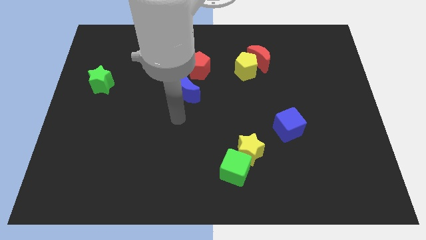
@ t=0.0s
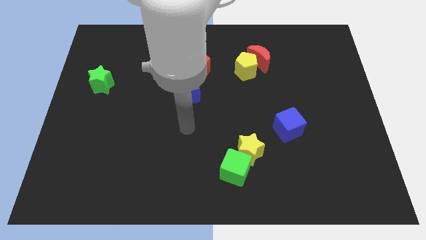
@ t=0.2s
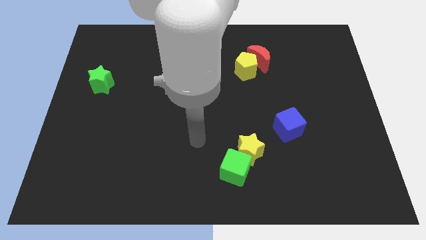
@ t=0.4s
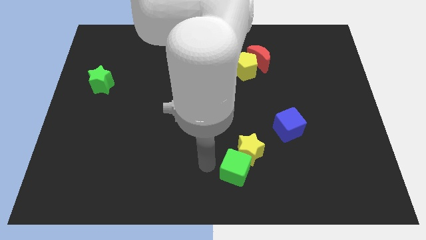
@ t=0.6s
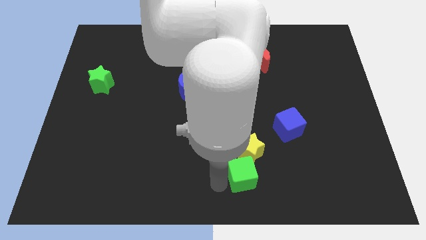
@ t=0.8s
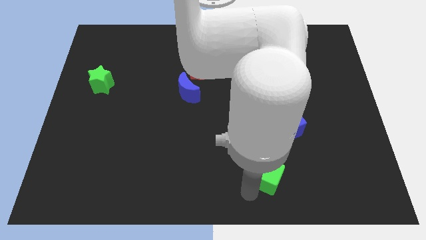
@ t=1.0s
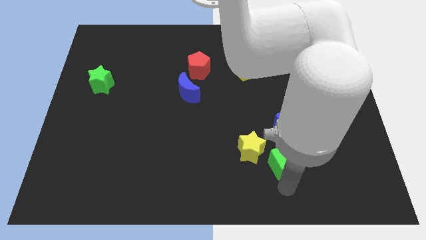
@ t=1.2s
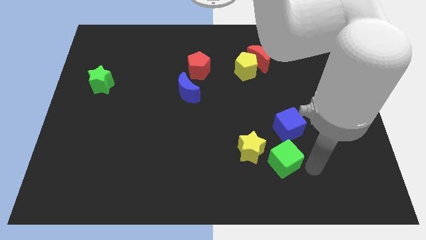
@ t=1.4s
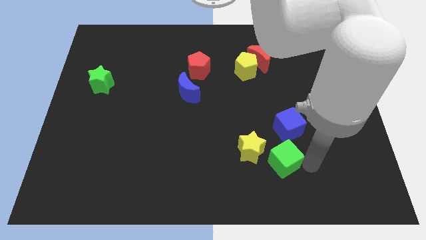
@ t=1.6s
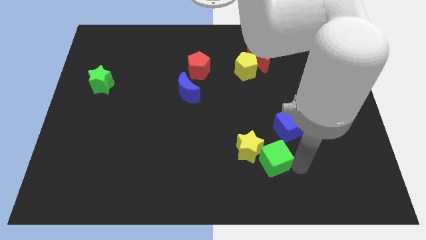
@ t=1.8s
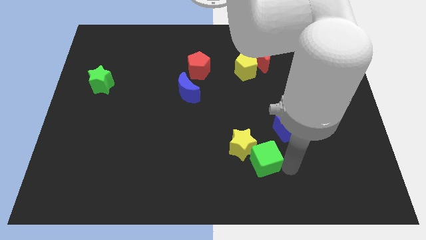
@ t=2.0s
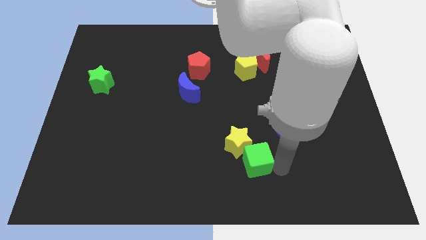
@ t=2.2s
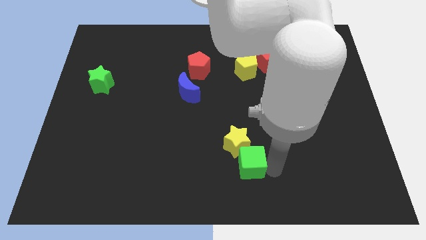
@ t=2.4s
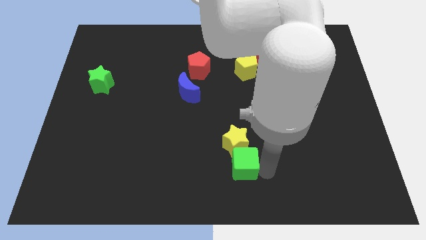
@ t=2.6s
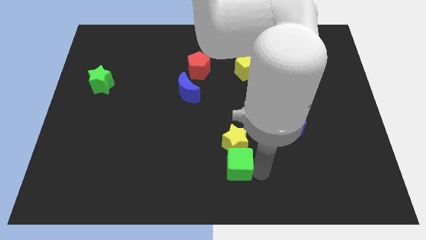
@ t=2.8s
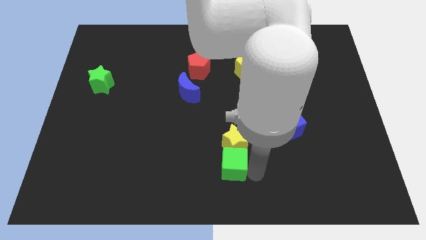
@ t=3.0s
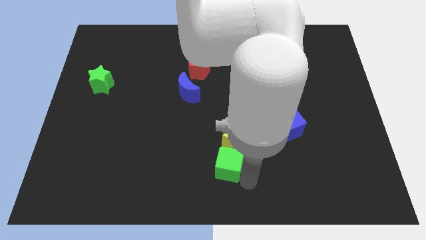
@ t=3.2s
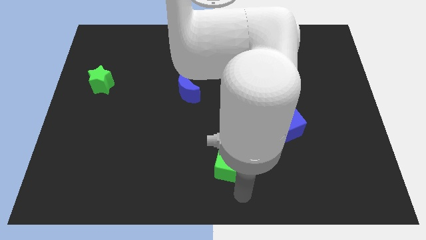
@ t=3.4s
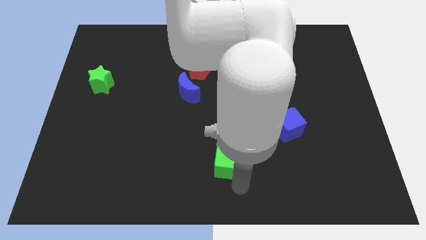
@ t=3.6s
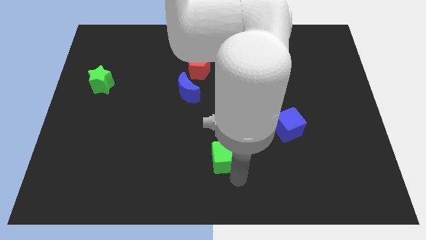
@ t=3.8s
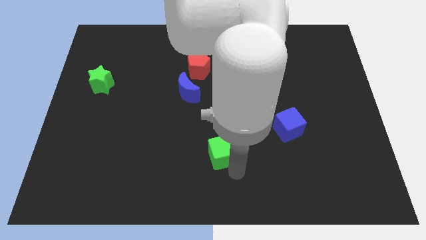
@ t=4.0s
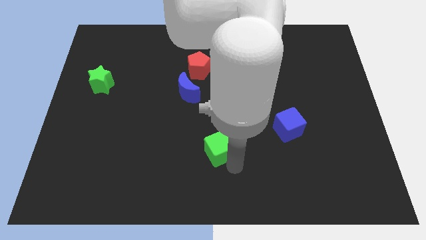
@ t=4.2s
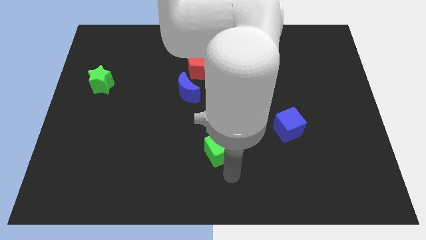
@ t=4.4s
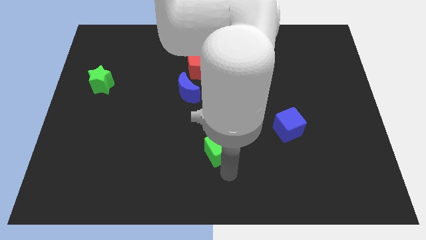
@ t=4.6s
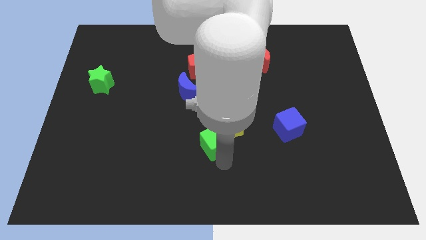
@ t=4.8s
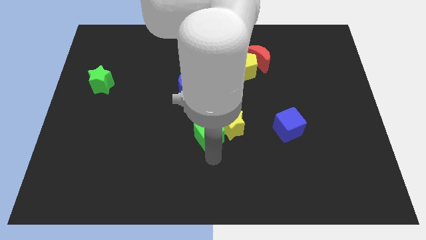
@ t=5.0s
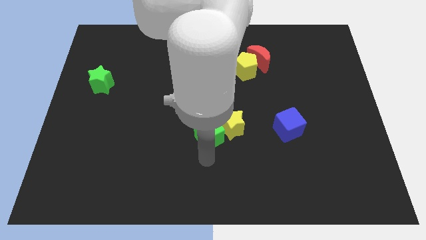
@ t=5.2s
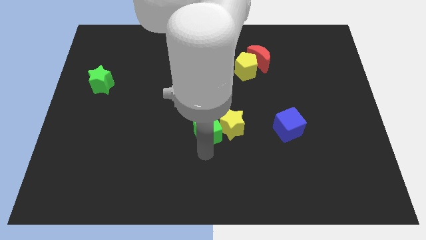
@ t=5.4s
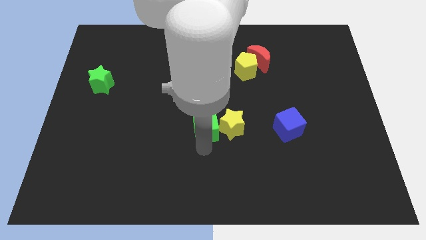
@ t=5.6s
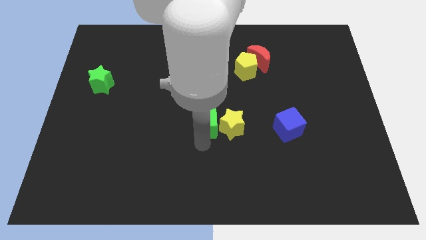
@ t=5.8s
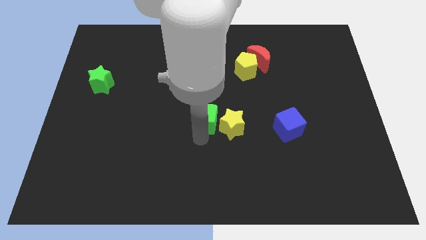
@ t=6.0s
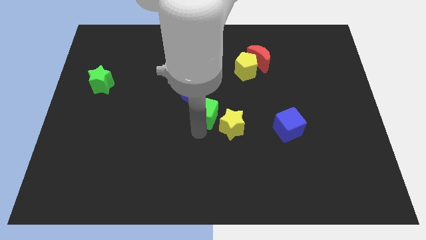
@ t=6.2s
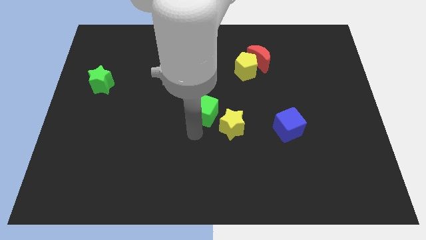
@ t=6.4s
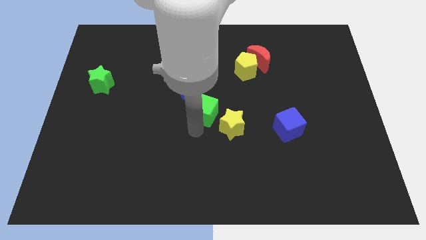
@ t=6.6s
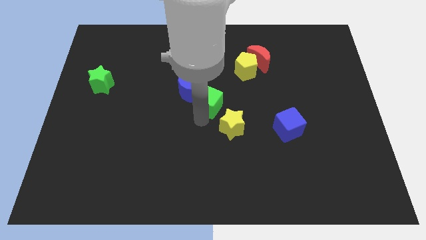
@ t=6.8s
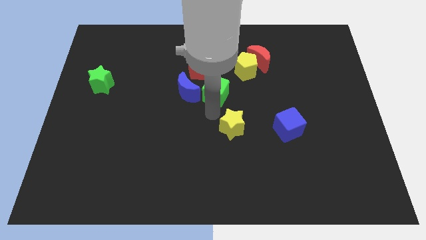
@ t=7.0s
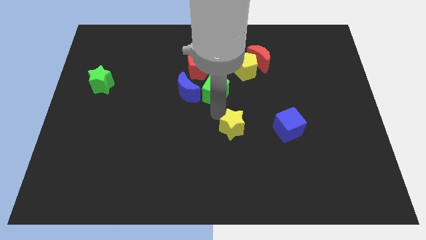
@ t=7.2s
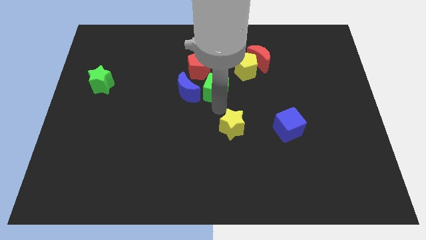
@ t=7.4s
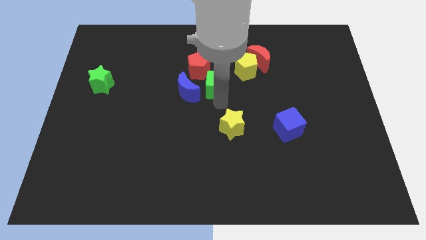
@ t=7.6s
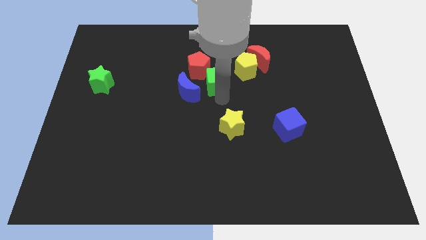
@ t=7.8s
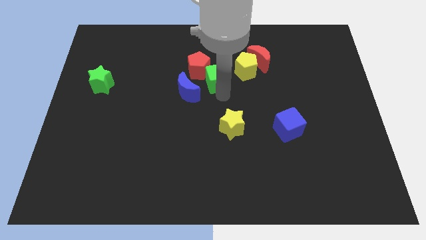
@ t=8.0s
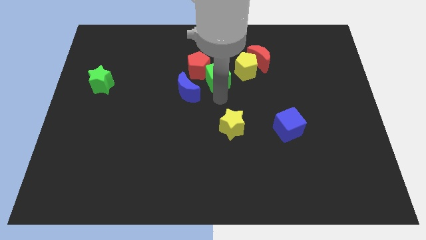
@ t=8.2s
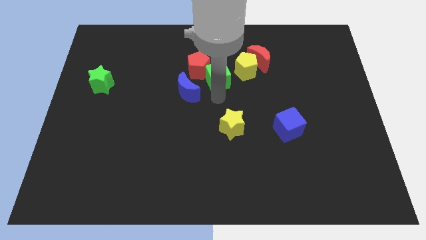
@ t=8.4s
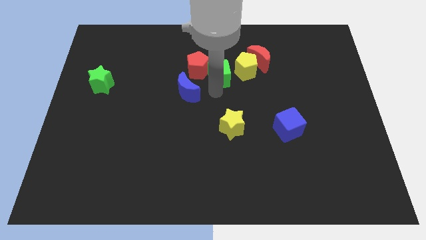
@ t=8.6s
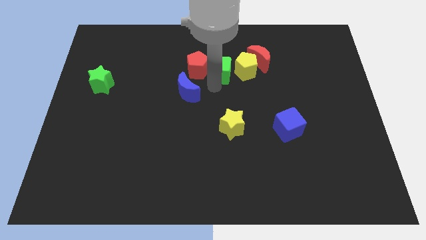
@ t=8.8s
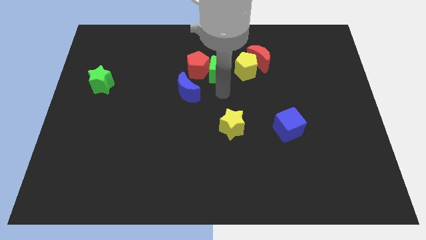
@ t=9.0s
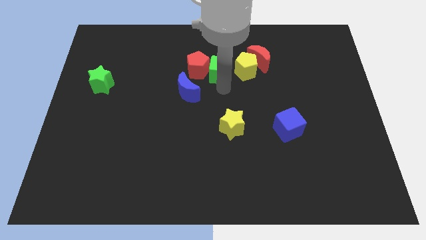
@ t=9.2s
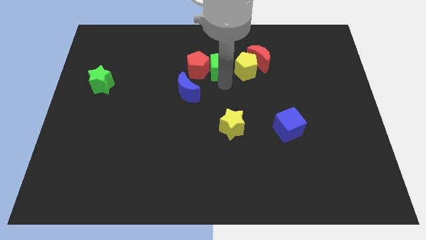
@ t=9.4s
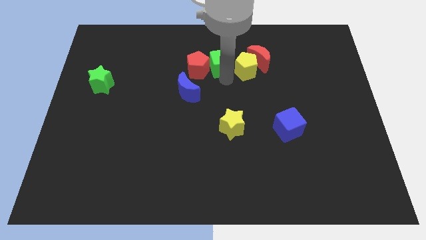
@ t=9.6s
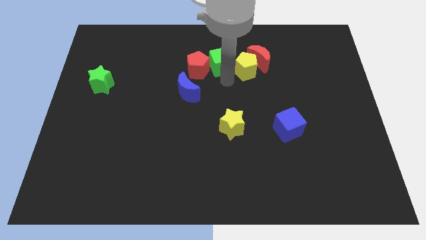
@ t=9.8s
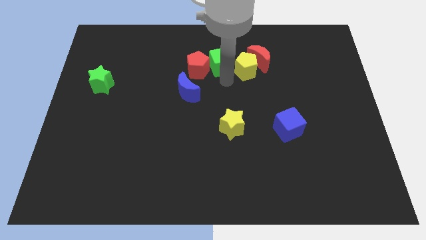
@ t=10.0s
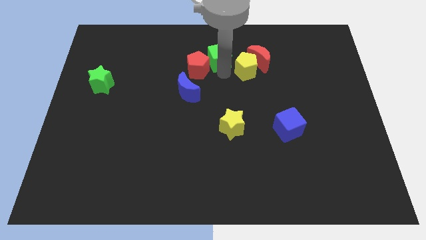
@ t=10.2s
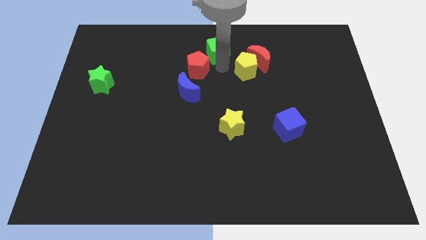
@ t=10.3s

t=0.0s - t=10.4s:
move the green cube to the towards your base

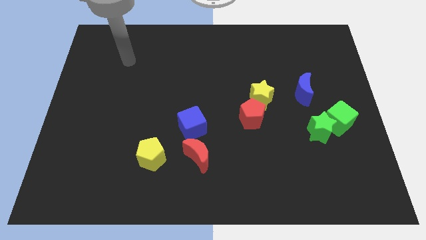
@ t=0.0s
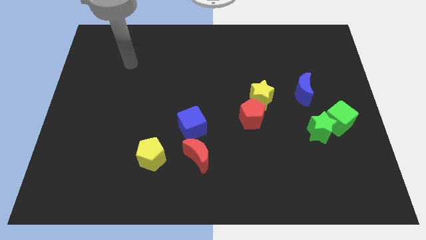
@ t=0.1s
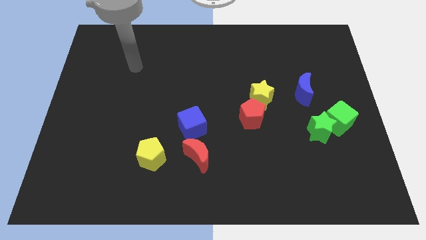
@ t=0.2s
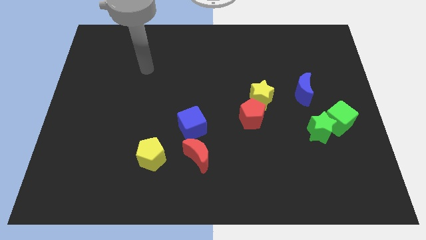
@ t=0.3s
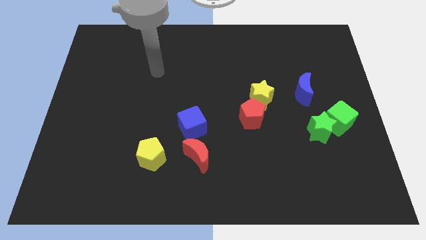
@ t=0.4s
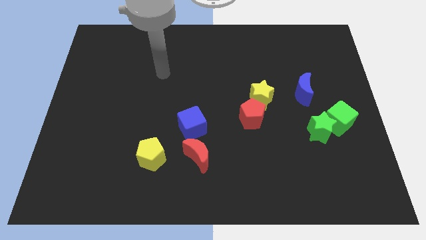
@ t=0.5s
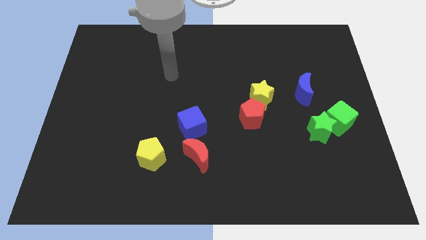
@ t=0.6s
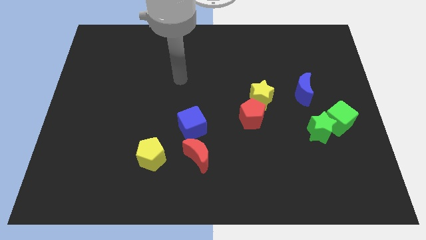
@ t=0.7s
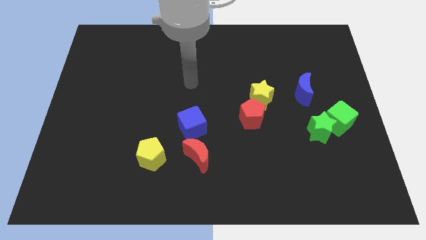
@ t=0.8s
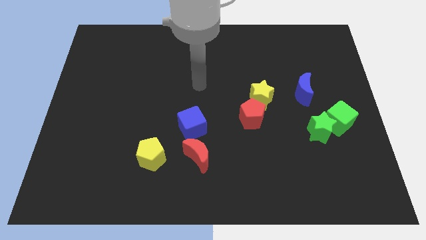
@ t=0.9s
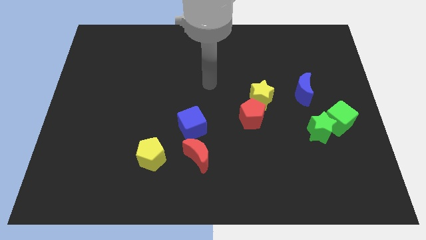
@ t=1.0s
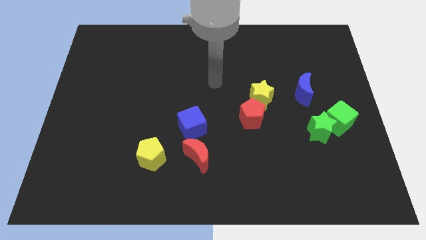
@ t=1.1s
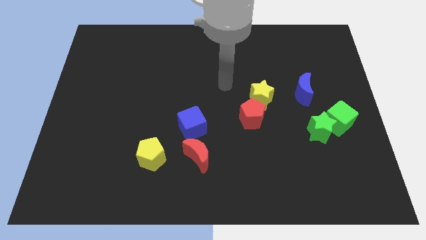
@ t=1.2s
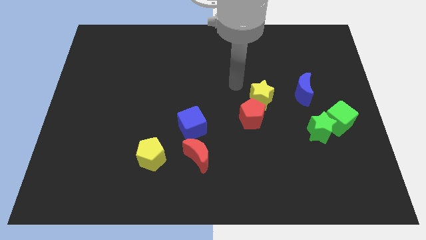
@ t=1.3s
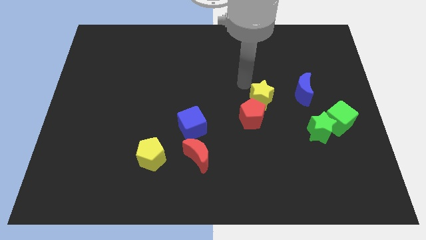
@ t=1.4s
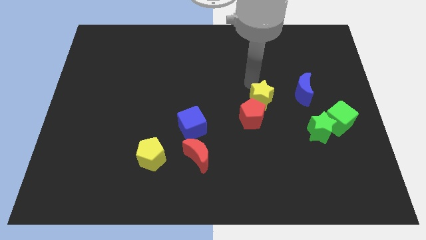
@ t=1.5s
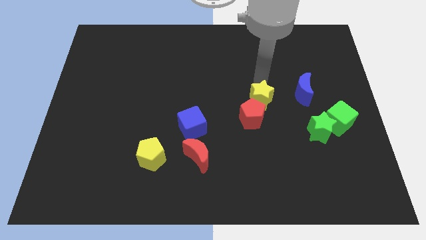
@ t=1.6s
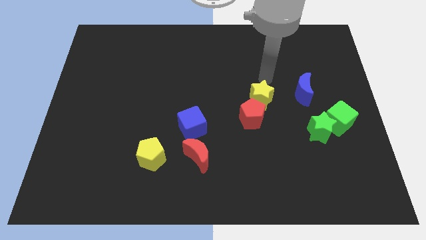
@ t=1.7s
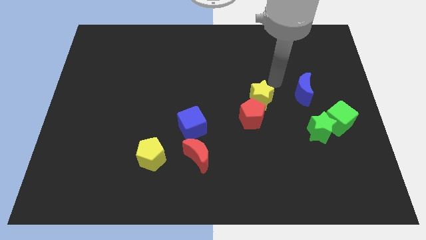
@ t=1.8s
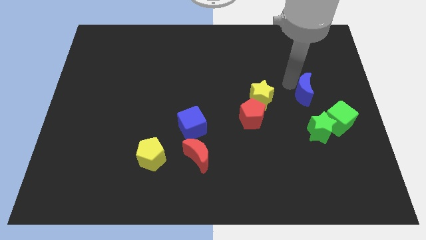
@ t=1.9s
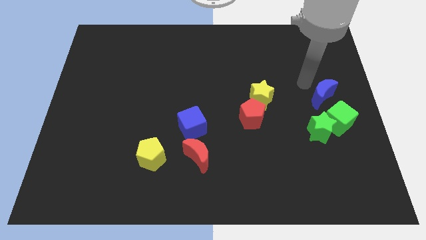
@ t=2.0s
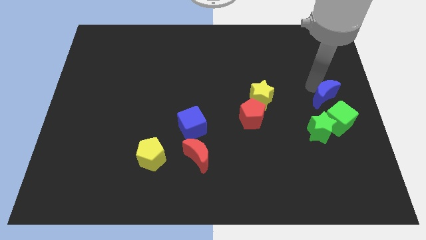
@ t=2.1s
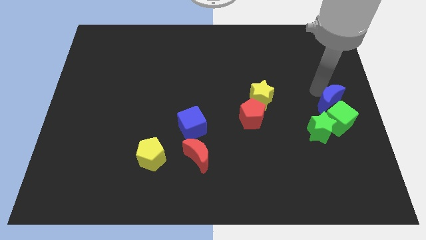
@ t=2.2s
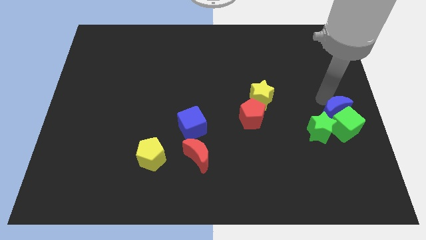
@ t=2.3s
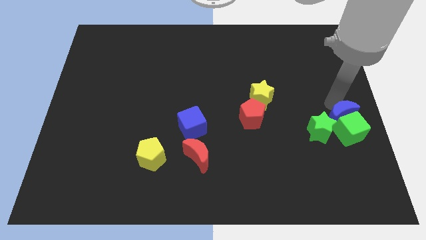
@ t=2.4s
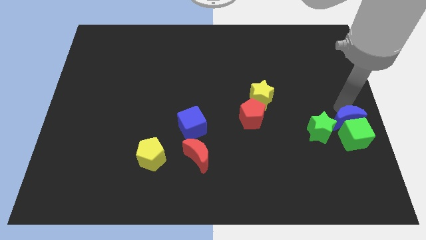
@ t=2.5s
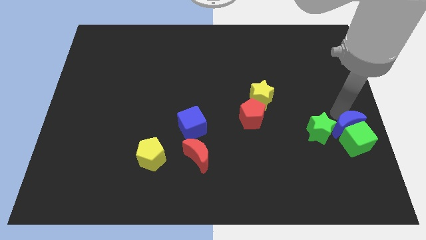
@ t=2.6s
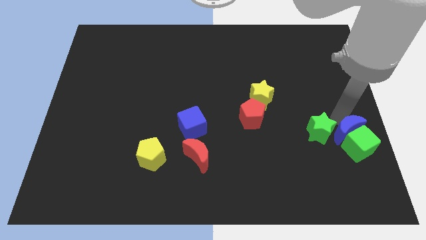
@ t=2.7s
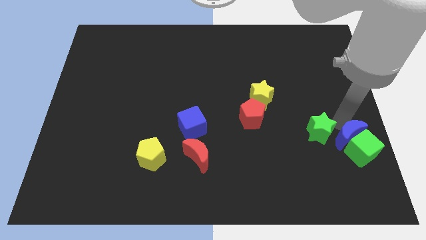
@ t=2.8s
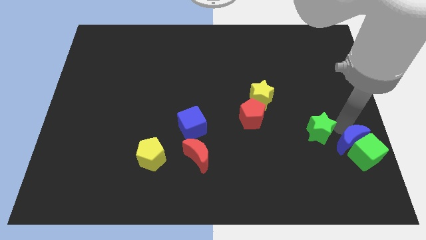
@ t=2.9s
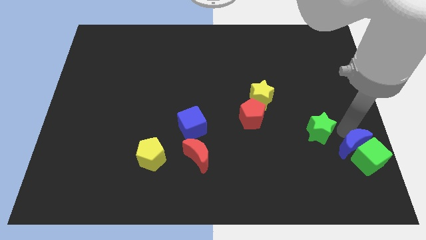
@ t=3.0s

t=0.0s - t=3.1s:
move the green cube to the bottom right of the board
